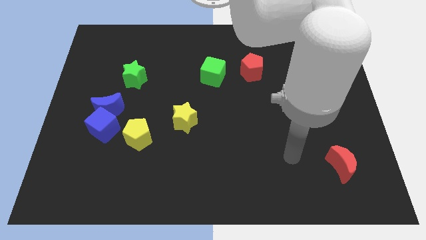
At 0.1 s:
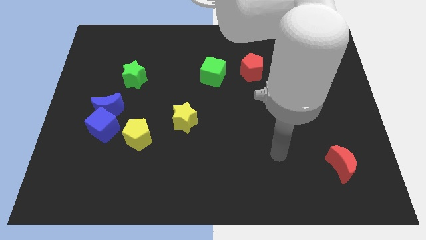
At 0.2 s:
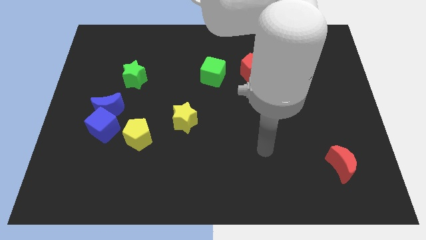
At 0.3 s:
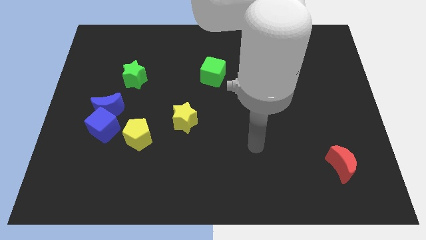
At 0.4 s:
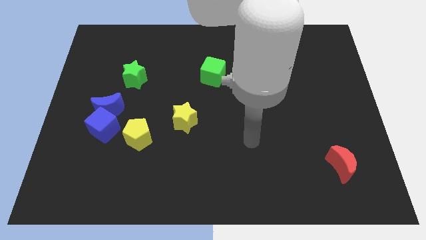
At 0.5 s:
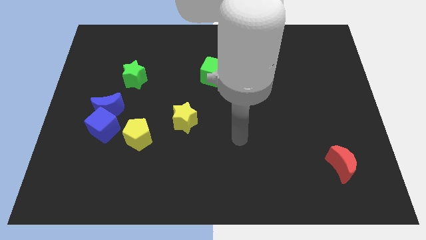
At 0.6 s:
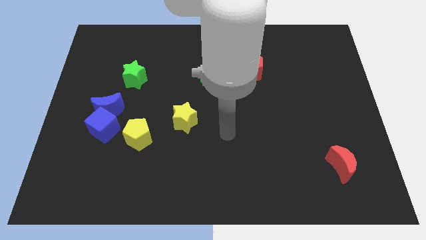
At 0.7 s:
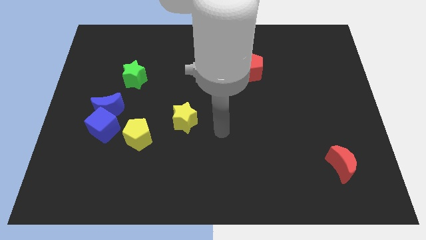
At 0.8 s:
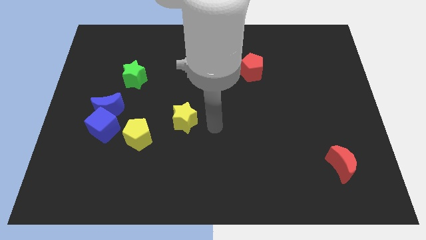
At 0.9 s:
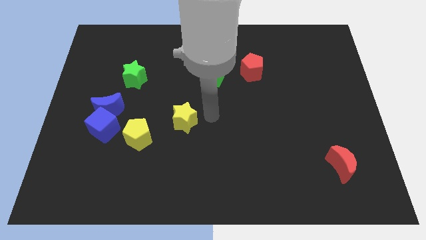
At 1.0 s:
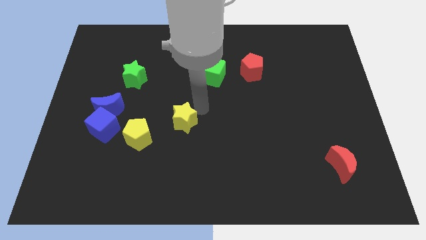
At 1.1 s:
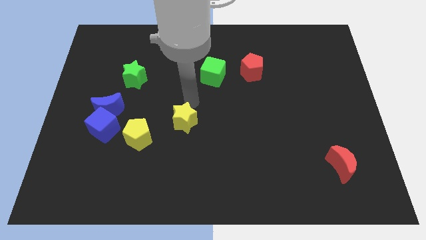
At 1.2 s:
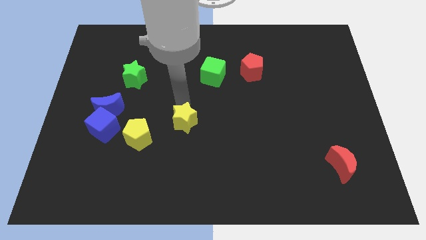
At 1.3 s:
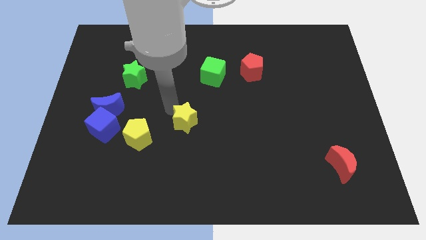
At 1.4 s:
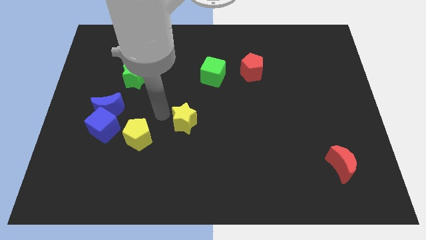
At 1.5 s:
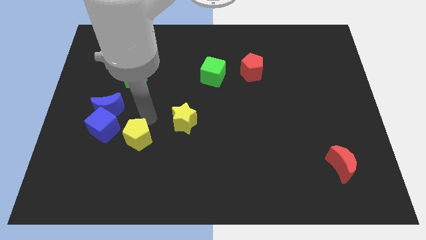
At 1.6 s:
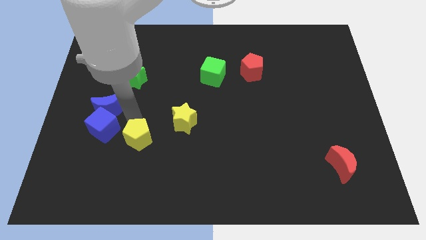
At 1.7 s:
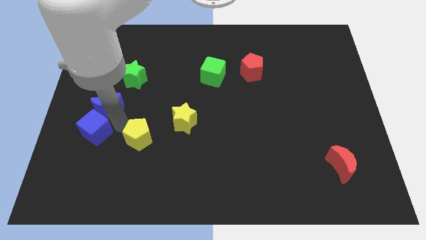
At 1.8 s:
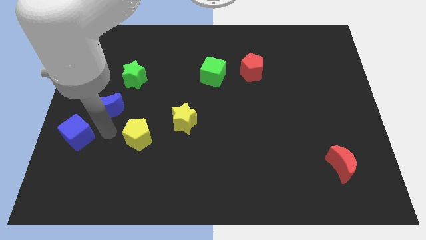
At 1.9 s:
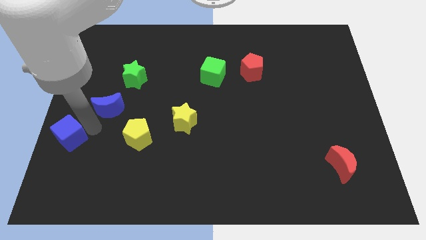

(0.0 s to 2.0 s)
move the blue moon away from the blue cube

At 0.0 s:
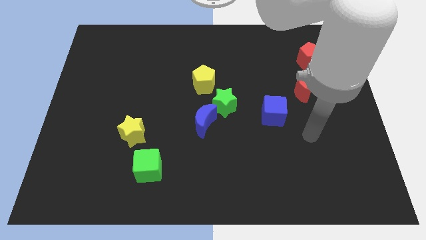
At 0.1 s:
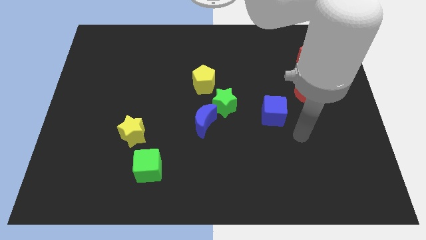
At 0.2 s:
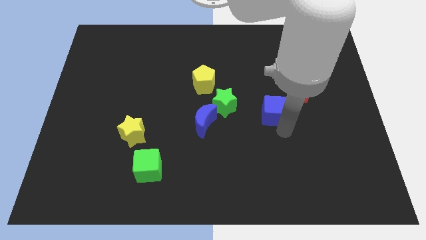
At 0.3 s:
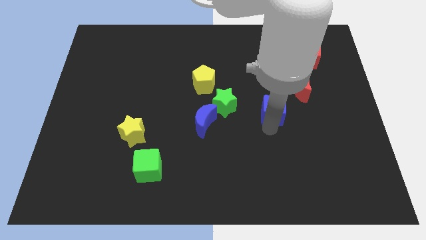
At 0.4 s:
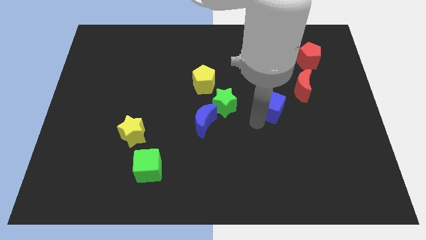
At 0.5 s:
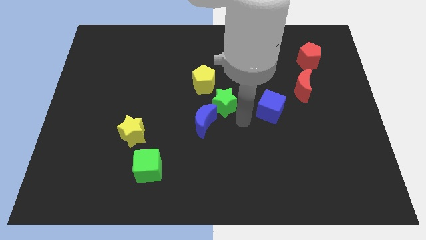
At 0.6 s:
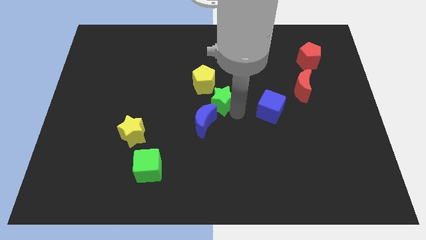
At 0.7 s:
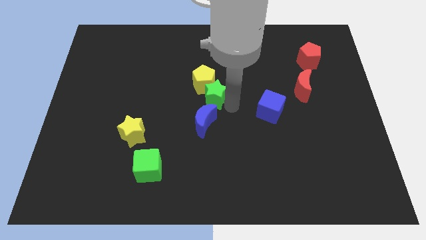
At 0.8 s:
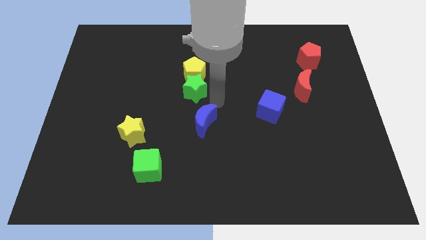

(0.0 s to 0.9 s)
pull the blue moon apart from the green star

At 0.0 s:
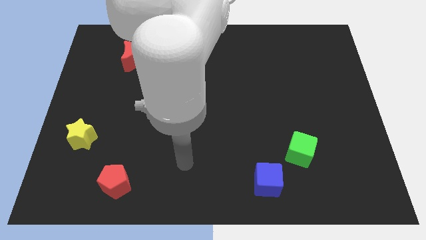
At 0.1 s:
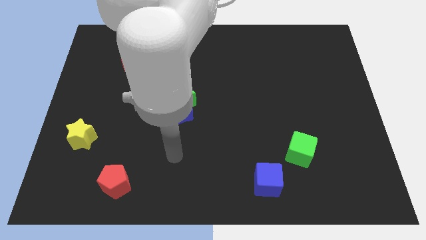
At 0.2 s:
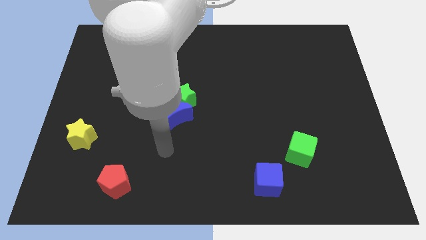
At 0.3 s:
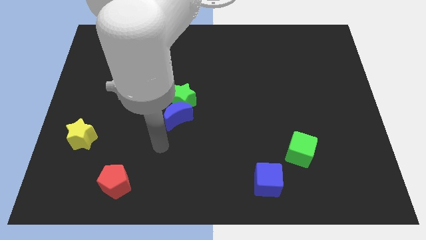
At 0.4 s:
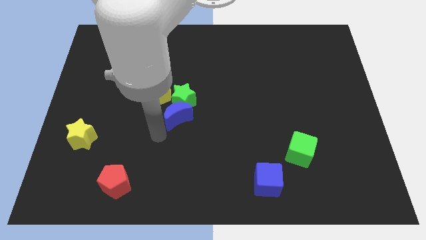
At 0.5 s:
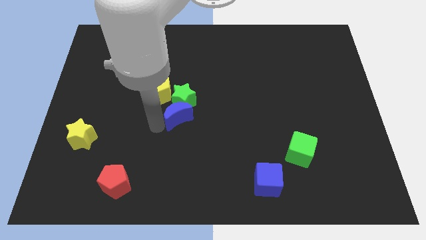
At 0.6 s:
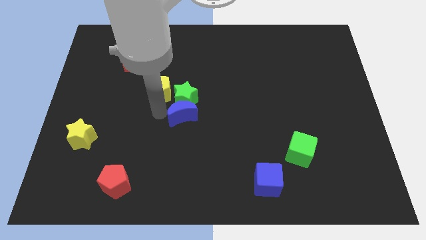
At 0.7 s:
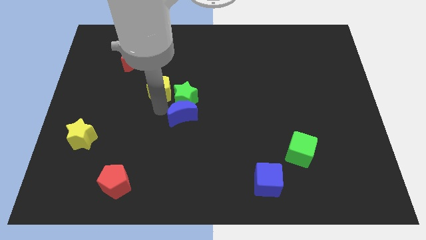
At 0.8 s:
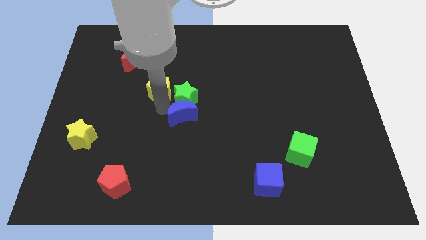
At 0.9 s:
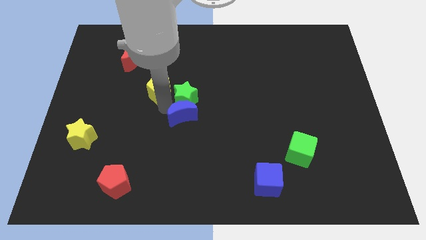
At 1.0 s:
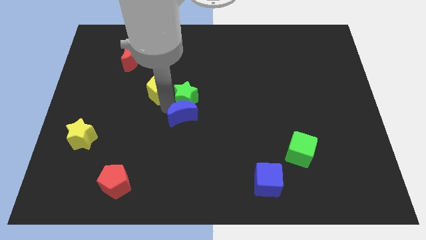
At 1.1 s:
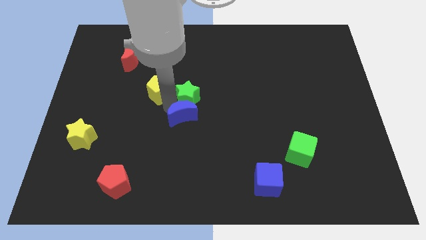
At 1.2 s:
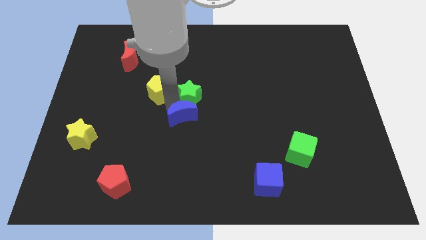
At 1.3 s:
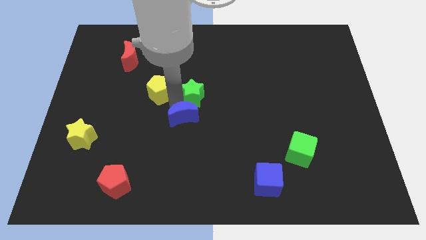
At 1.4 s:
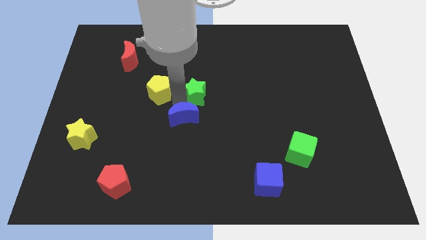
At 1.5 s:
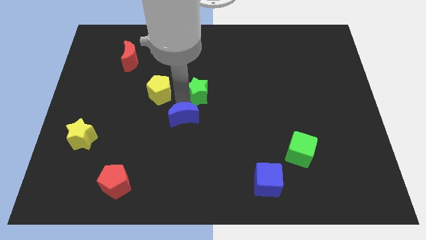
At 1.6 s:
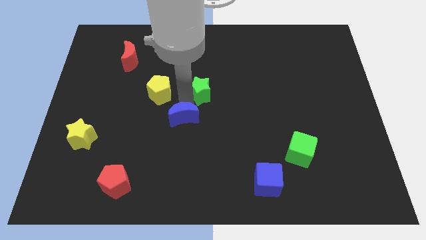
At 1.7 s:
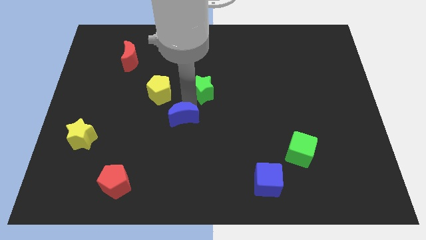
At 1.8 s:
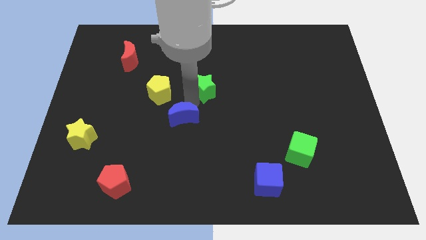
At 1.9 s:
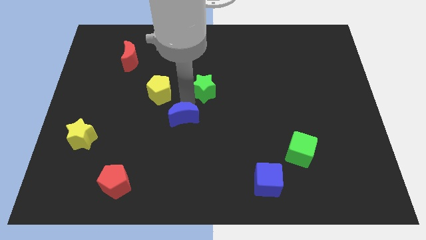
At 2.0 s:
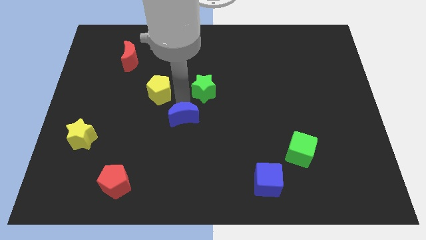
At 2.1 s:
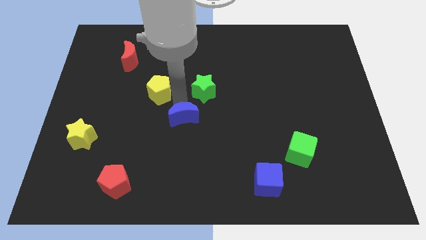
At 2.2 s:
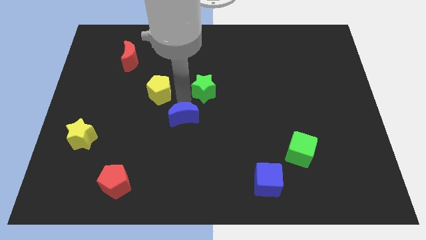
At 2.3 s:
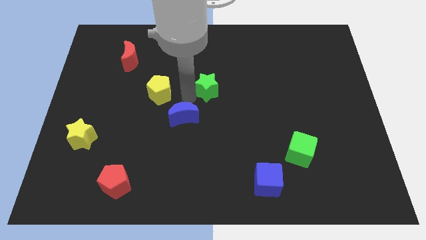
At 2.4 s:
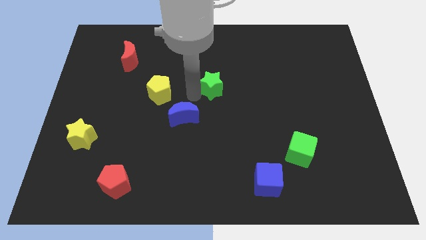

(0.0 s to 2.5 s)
pull the green star apart from the blue moon and yellow pentagon

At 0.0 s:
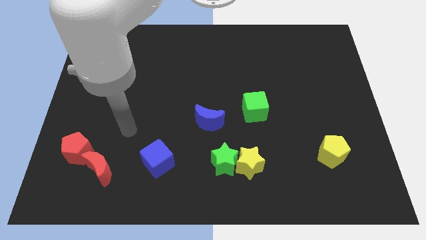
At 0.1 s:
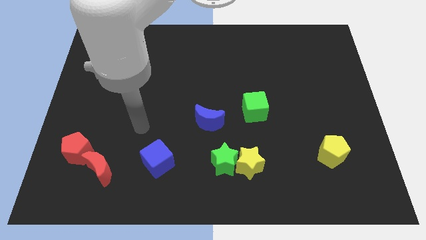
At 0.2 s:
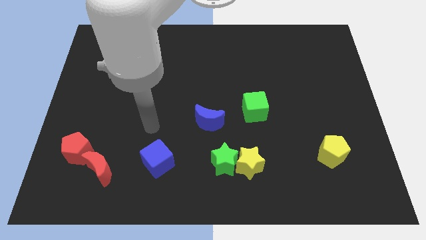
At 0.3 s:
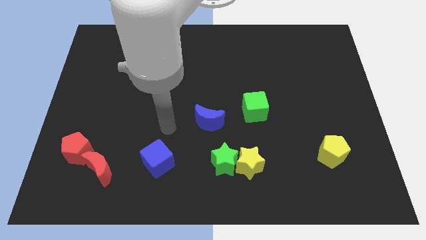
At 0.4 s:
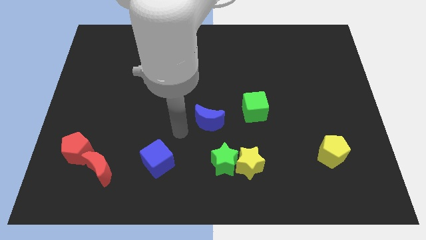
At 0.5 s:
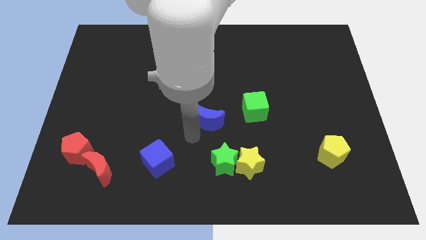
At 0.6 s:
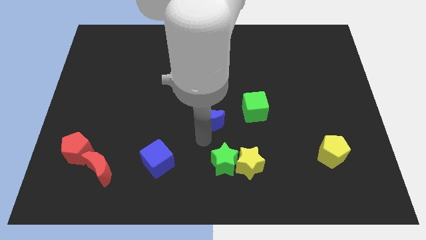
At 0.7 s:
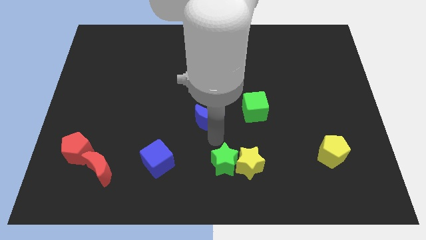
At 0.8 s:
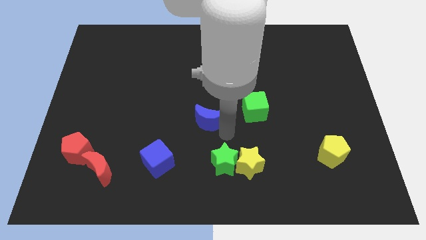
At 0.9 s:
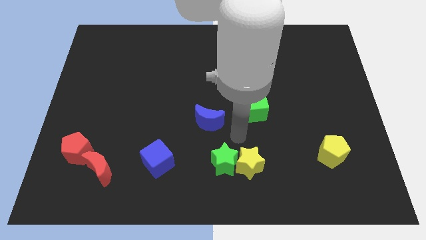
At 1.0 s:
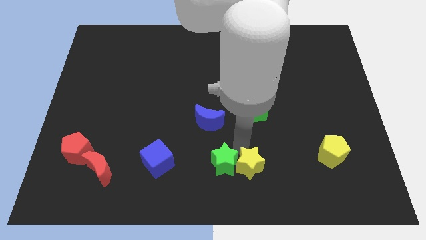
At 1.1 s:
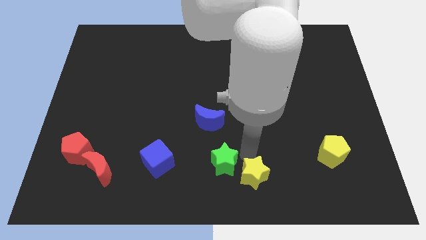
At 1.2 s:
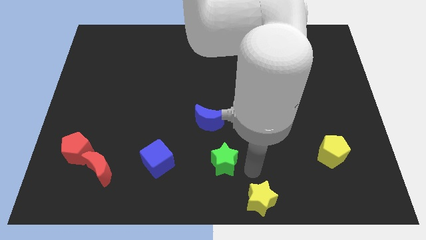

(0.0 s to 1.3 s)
separate the green star from the yellow star

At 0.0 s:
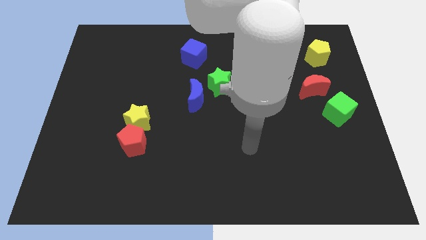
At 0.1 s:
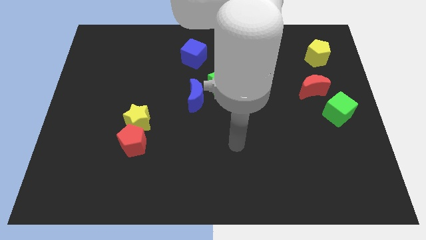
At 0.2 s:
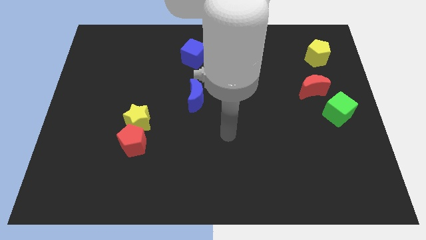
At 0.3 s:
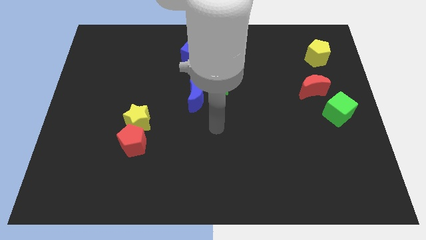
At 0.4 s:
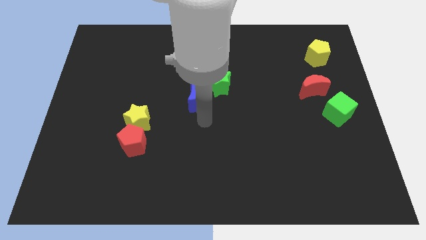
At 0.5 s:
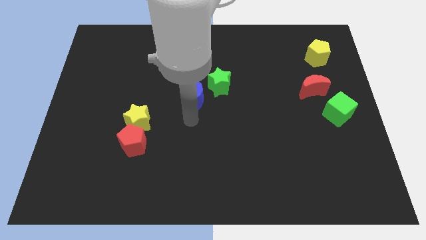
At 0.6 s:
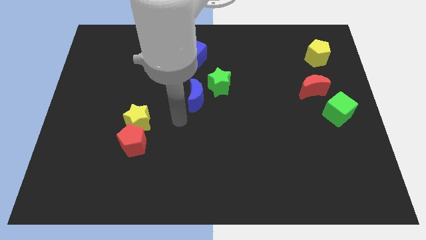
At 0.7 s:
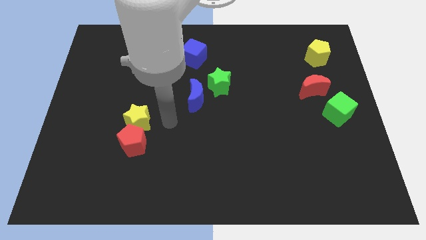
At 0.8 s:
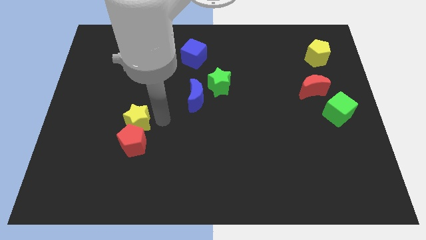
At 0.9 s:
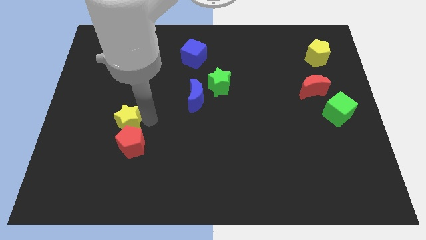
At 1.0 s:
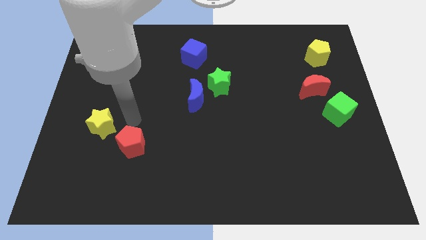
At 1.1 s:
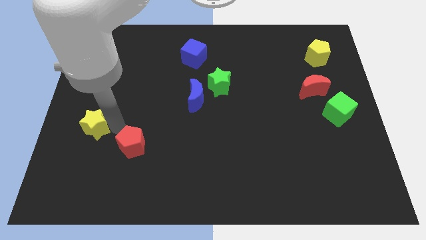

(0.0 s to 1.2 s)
move the red pentagon away from the yellow star

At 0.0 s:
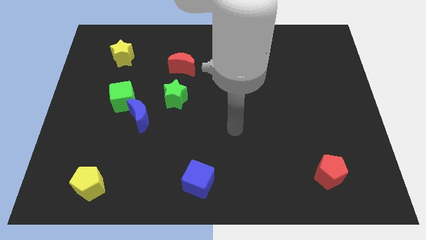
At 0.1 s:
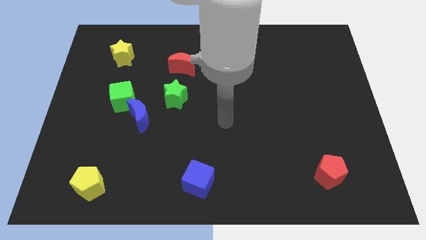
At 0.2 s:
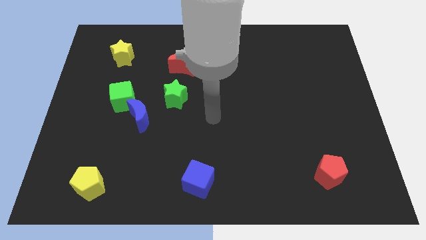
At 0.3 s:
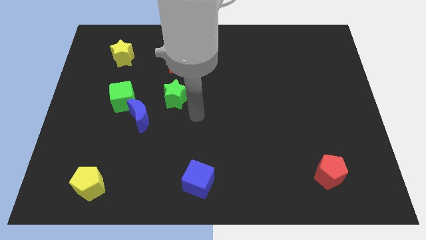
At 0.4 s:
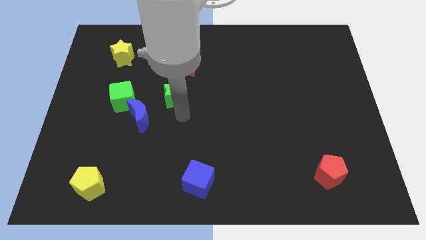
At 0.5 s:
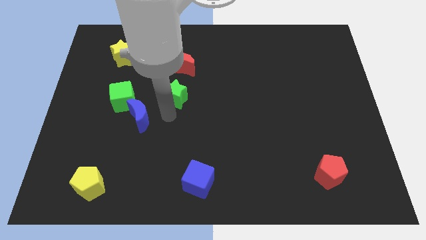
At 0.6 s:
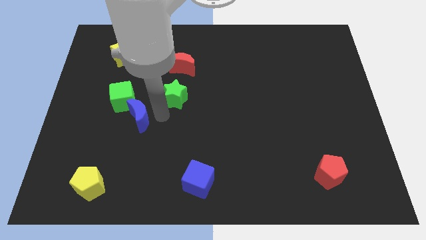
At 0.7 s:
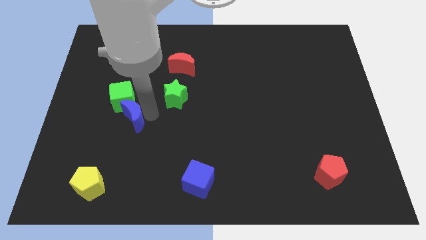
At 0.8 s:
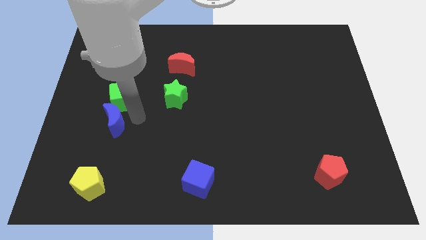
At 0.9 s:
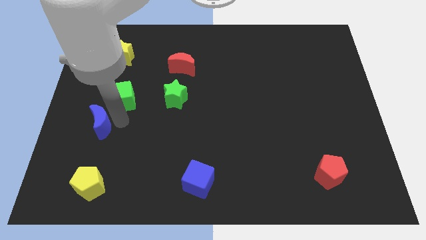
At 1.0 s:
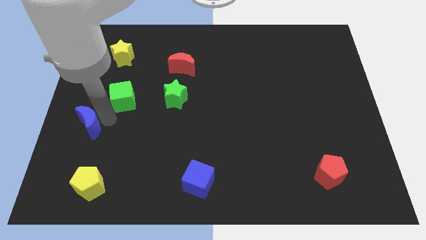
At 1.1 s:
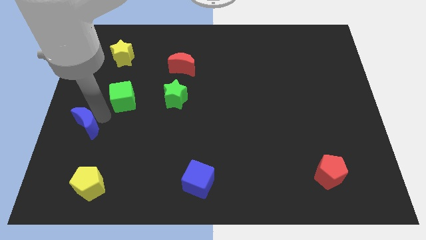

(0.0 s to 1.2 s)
separate the green cube from the blue moon

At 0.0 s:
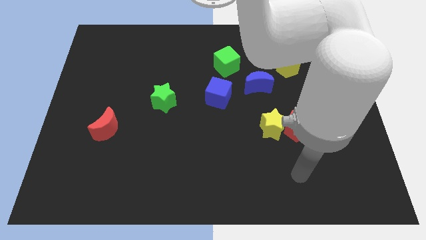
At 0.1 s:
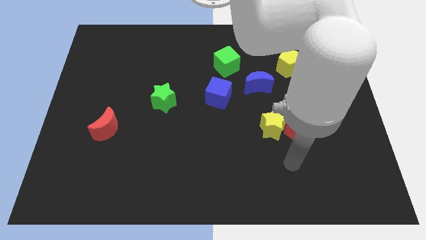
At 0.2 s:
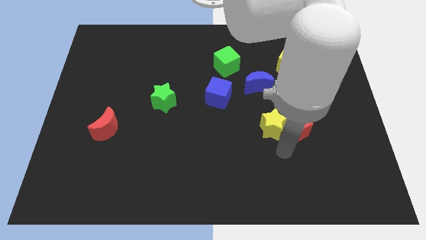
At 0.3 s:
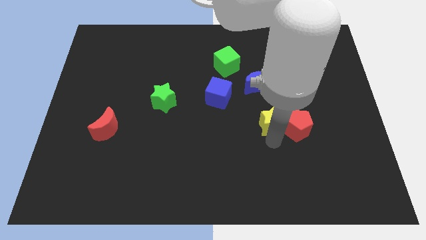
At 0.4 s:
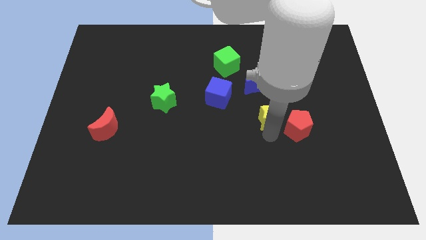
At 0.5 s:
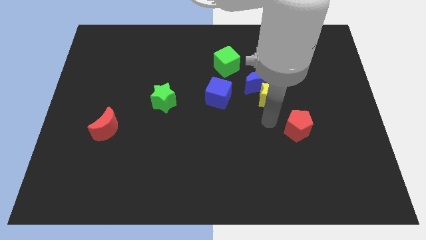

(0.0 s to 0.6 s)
pull the red pentagon apart from the yellow star
